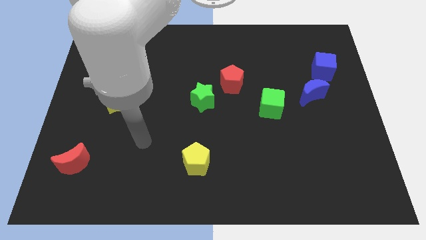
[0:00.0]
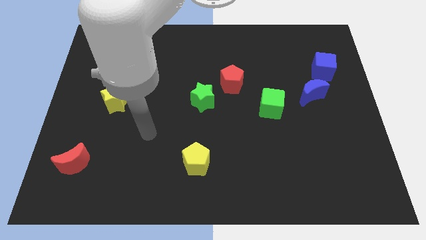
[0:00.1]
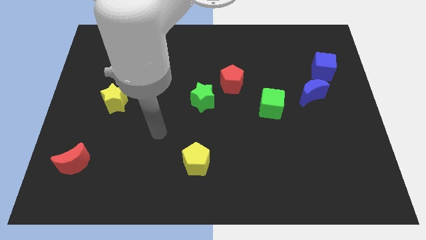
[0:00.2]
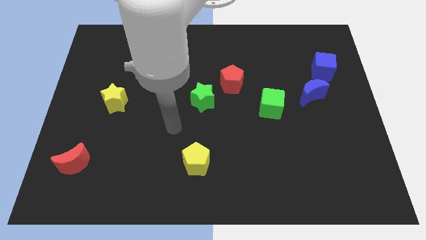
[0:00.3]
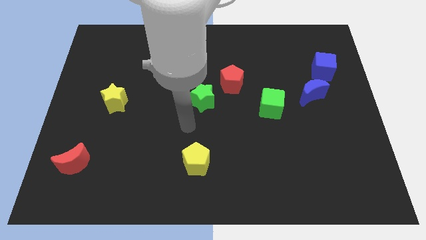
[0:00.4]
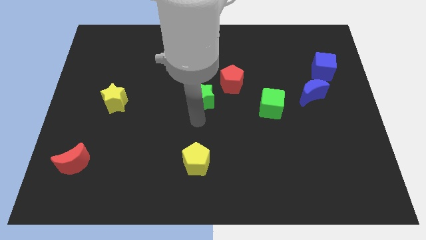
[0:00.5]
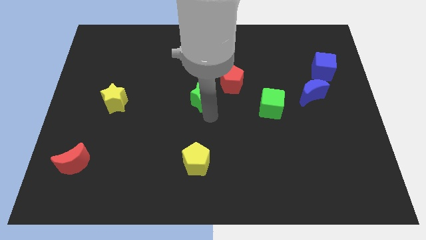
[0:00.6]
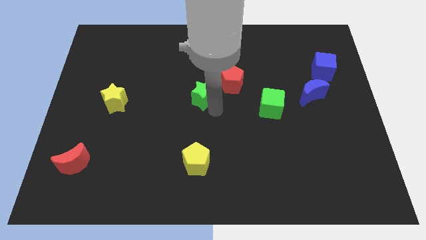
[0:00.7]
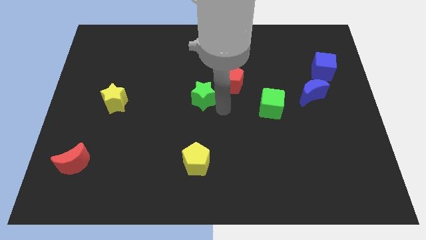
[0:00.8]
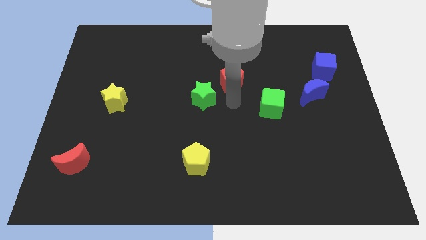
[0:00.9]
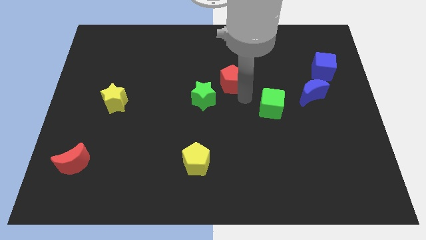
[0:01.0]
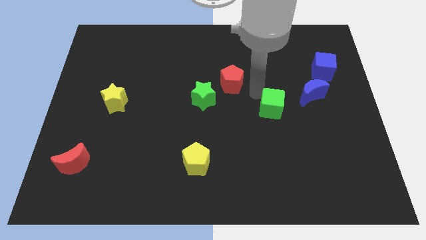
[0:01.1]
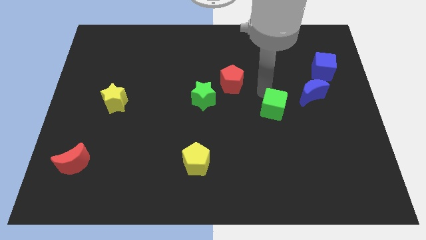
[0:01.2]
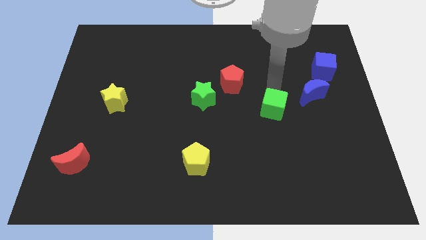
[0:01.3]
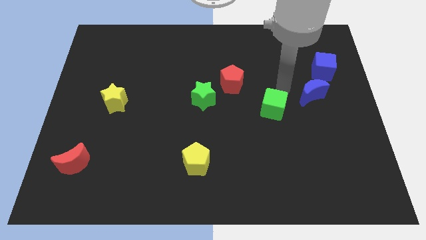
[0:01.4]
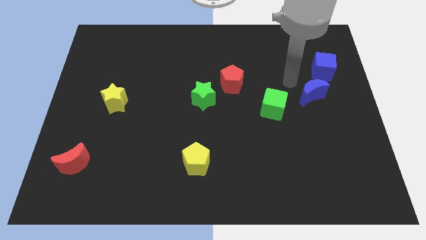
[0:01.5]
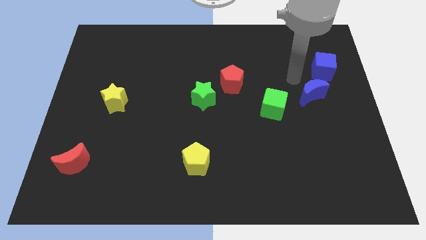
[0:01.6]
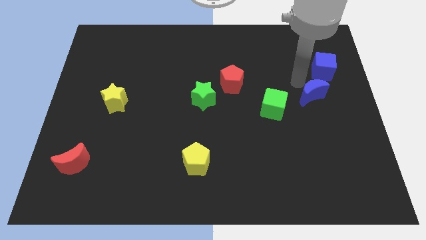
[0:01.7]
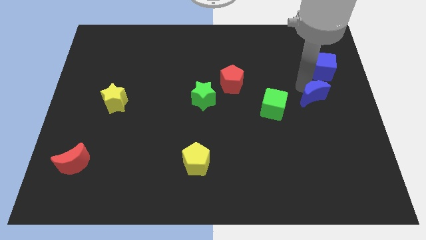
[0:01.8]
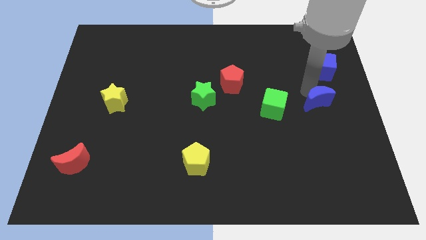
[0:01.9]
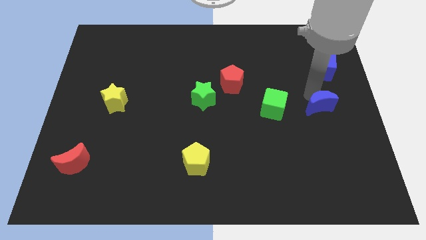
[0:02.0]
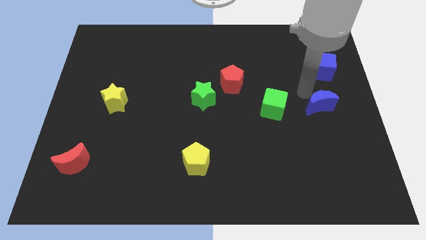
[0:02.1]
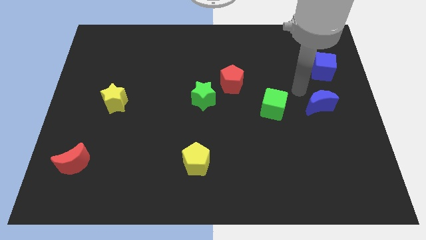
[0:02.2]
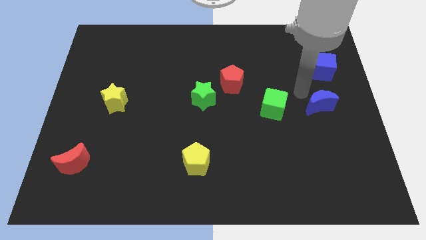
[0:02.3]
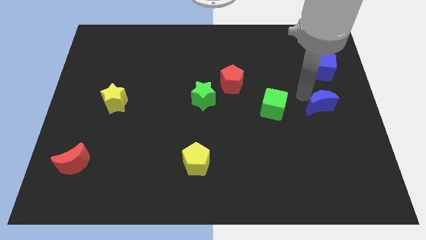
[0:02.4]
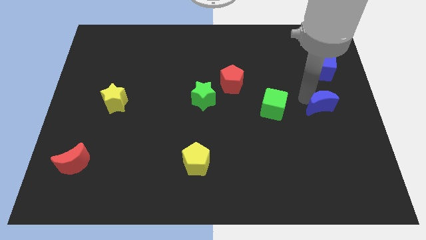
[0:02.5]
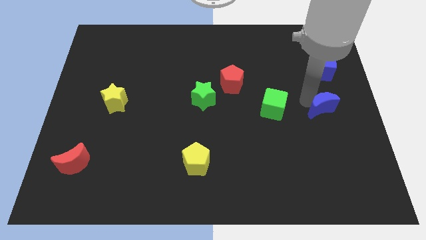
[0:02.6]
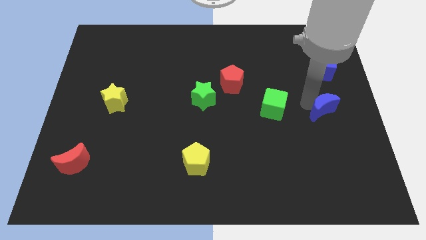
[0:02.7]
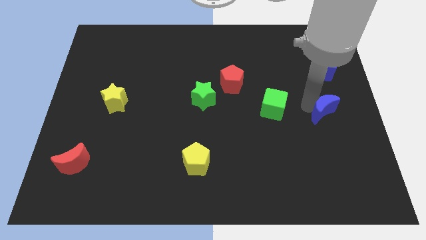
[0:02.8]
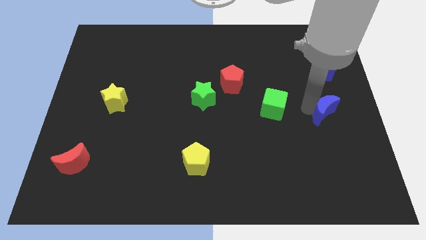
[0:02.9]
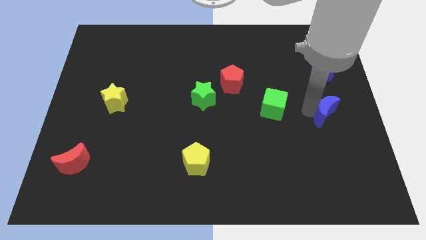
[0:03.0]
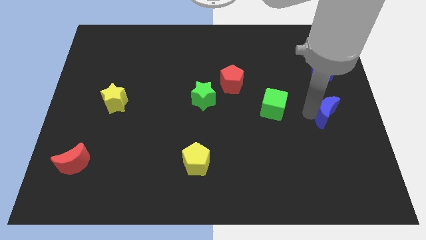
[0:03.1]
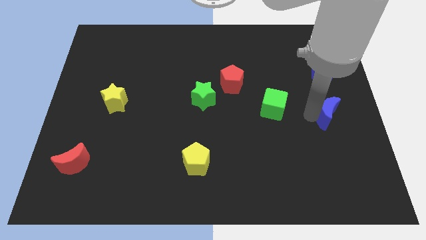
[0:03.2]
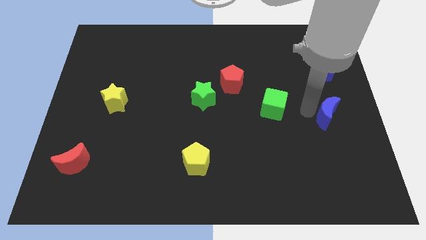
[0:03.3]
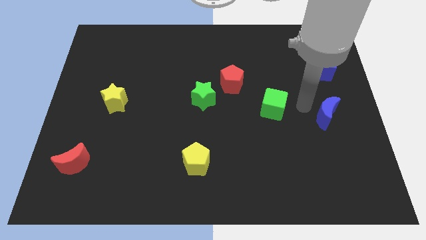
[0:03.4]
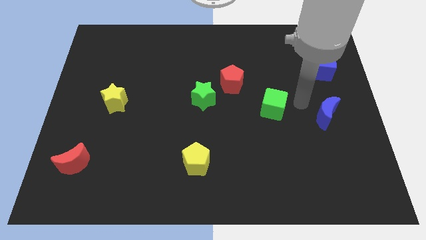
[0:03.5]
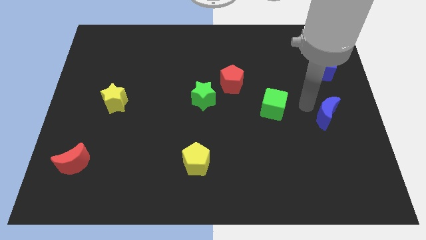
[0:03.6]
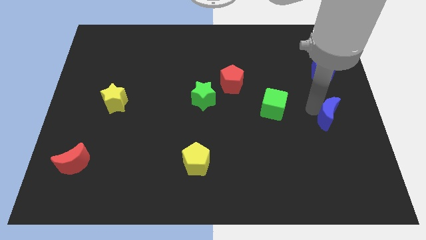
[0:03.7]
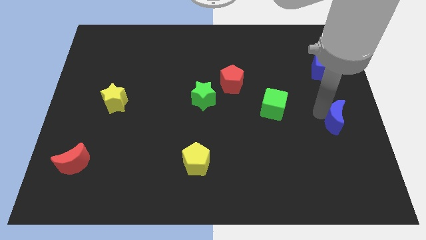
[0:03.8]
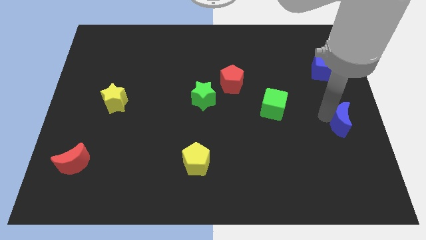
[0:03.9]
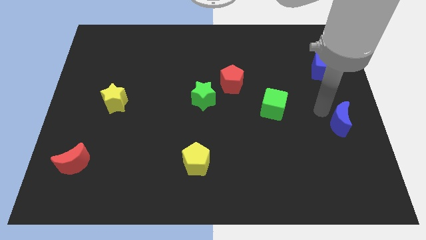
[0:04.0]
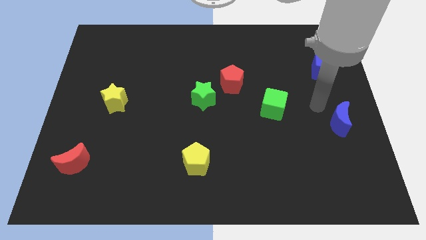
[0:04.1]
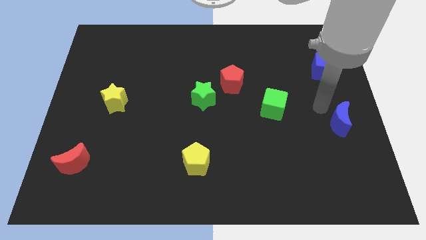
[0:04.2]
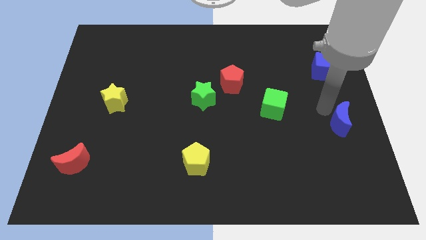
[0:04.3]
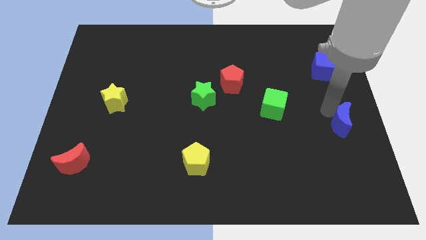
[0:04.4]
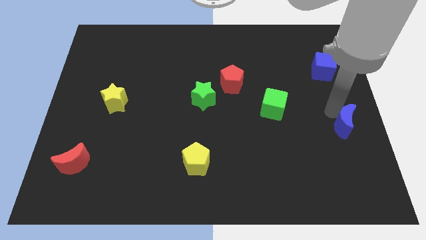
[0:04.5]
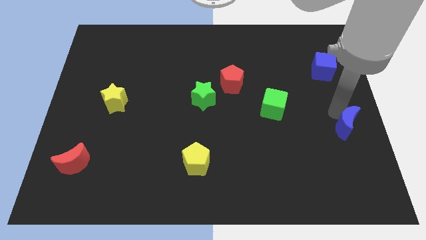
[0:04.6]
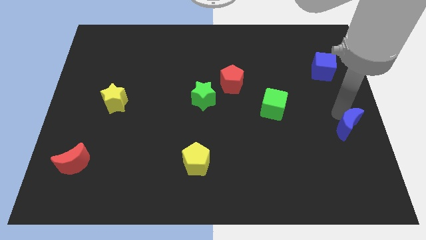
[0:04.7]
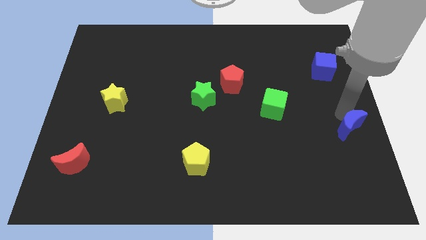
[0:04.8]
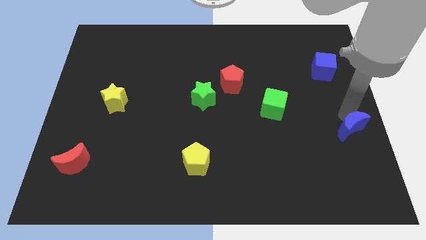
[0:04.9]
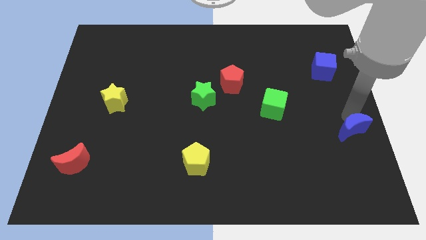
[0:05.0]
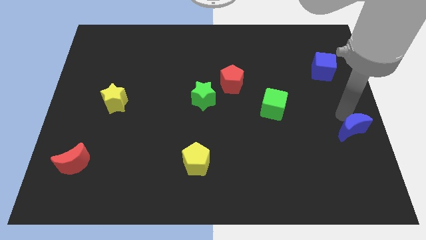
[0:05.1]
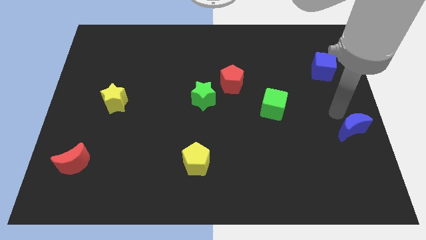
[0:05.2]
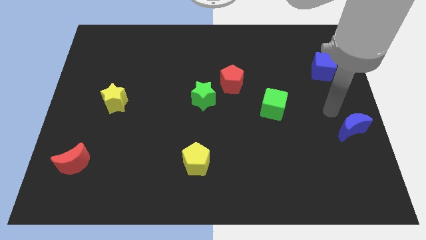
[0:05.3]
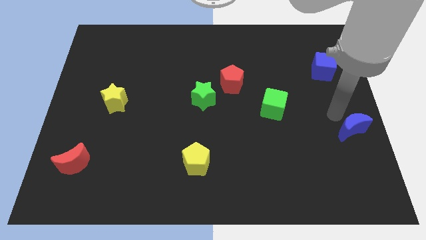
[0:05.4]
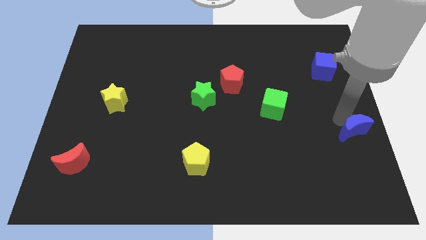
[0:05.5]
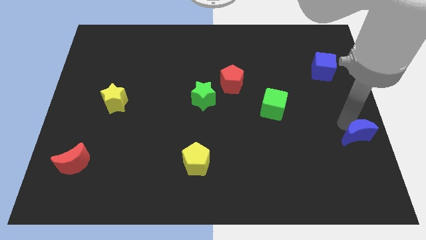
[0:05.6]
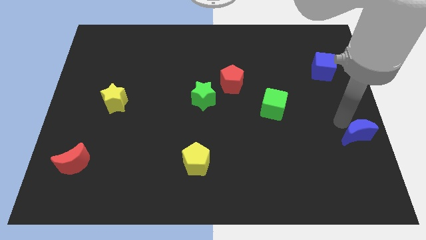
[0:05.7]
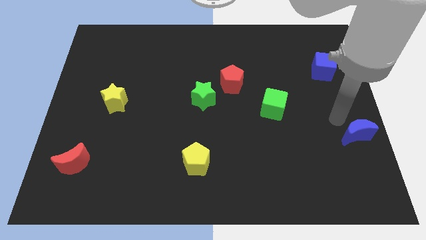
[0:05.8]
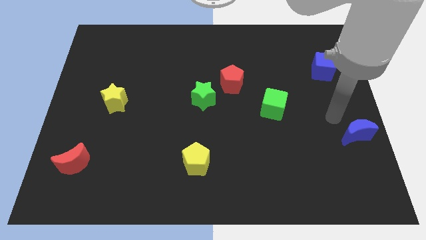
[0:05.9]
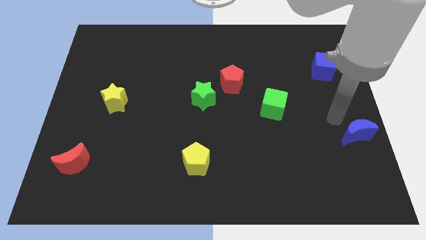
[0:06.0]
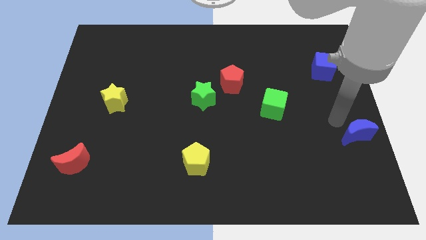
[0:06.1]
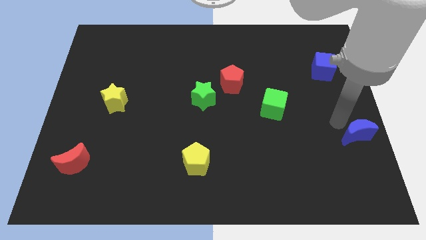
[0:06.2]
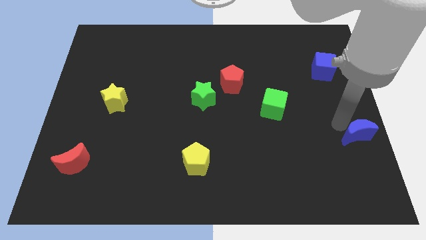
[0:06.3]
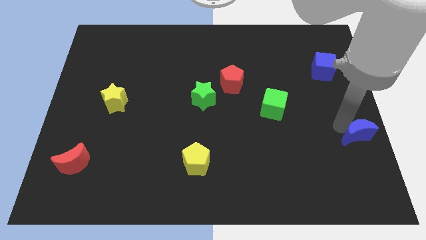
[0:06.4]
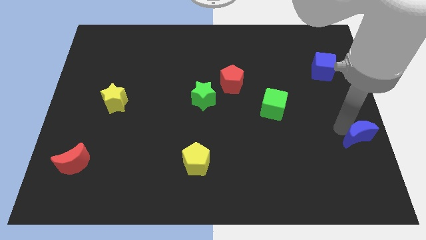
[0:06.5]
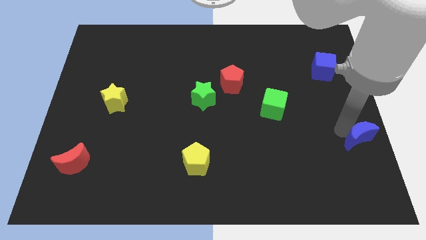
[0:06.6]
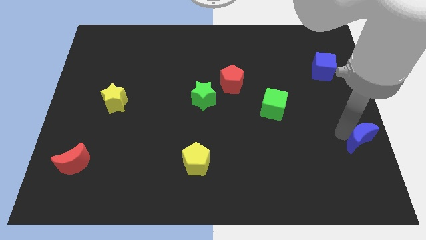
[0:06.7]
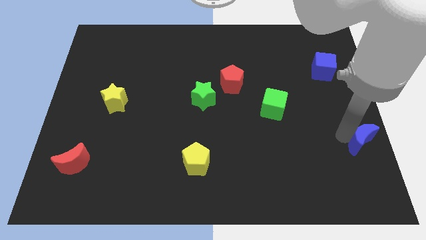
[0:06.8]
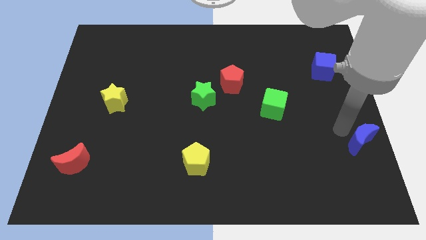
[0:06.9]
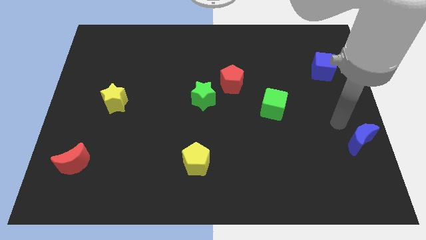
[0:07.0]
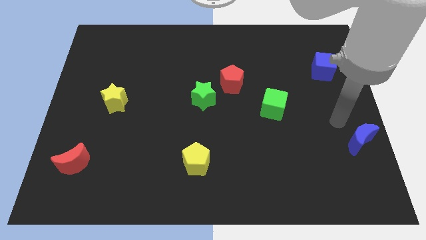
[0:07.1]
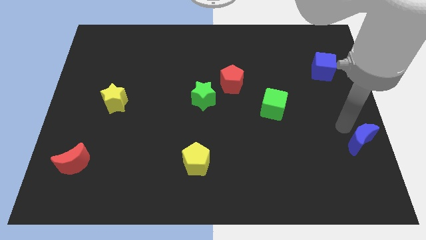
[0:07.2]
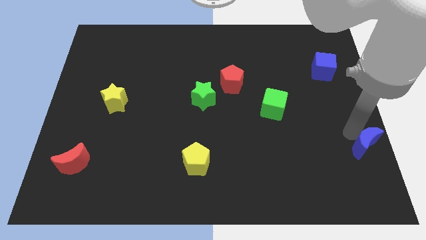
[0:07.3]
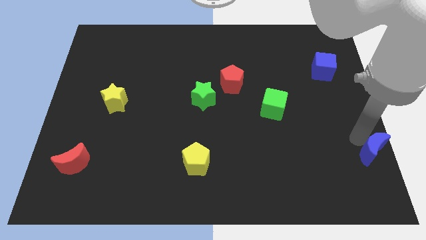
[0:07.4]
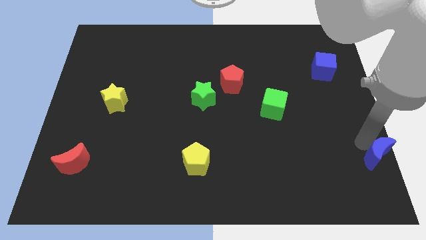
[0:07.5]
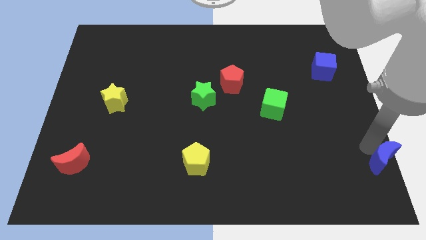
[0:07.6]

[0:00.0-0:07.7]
slide the blue moon to the bottom right corner
